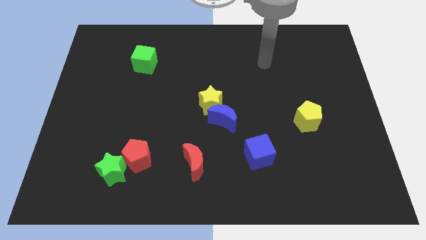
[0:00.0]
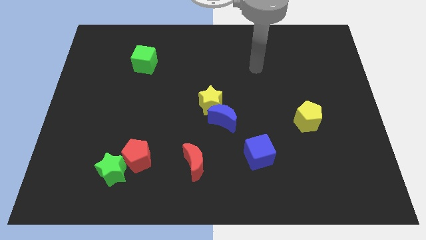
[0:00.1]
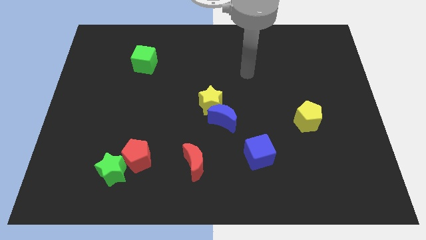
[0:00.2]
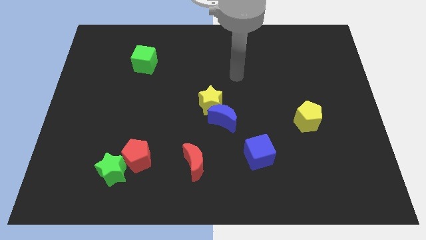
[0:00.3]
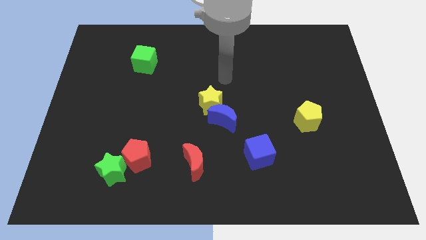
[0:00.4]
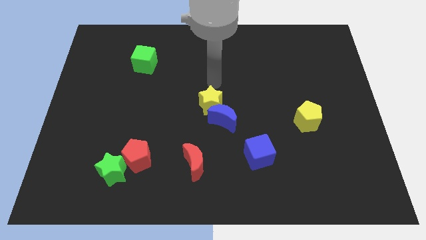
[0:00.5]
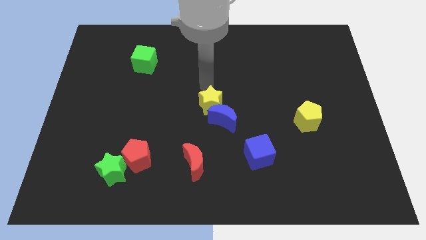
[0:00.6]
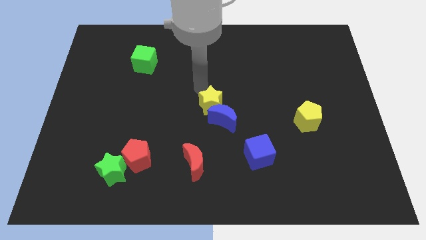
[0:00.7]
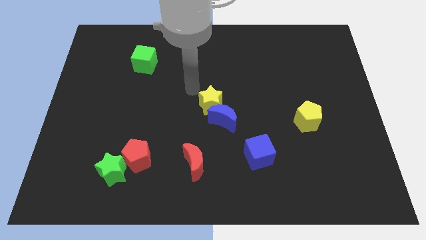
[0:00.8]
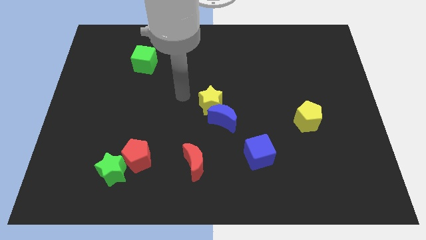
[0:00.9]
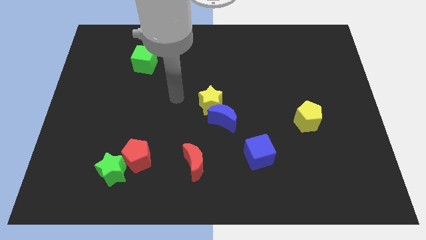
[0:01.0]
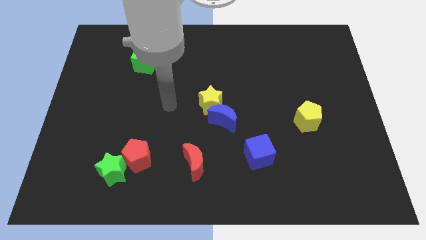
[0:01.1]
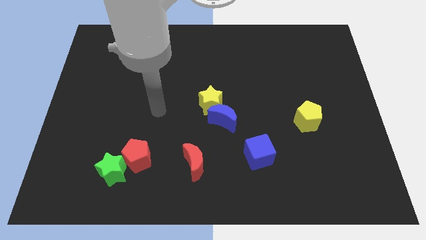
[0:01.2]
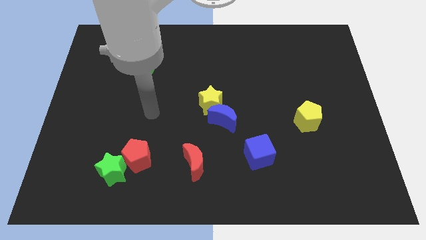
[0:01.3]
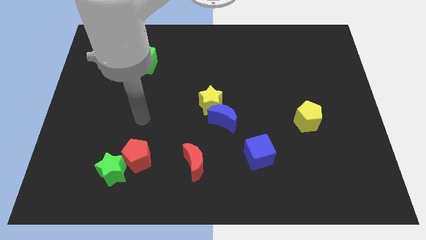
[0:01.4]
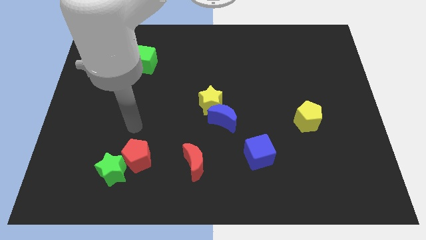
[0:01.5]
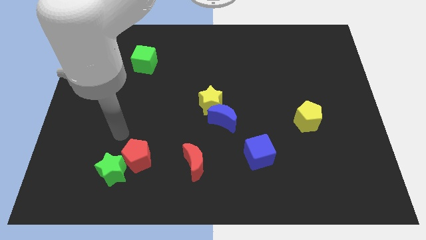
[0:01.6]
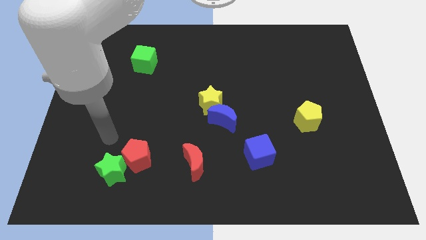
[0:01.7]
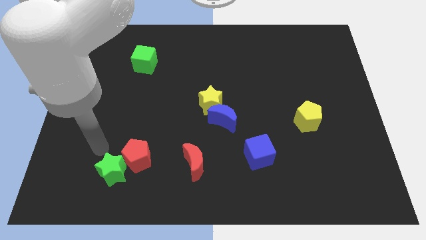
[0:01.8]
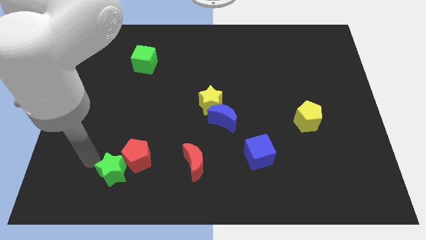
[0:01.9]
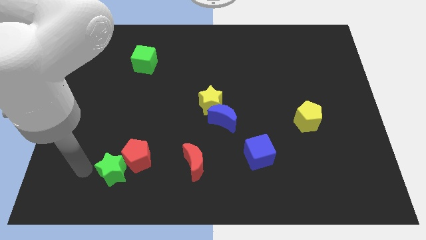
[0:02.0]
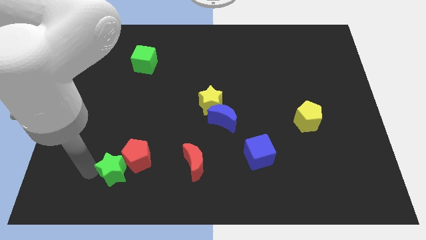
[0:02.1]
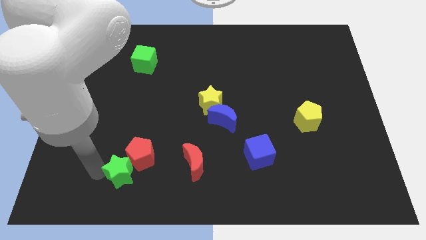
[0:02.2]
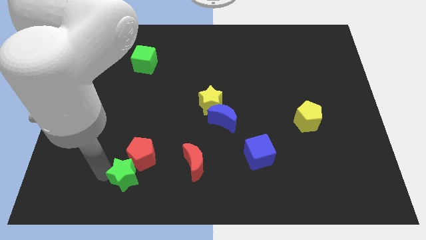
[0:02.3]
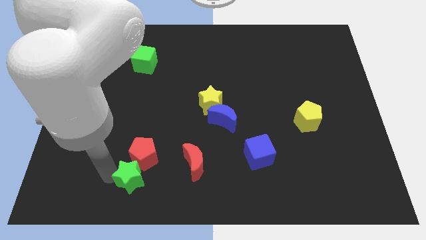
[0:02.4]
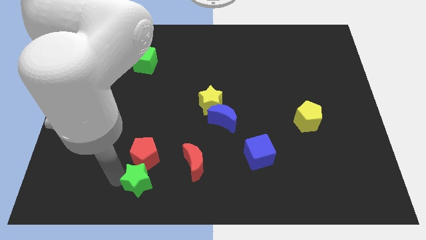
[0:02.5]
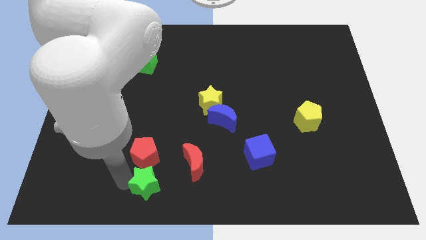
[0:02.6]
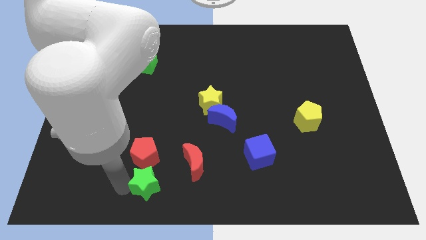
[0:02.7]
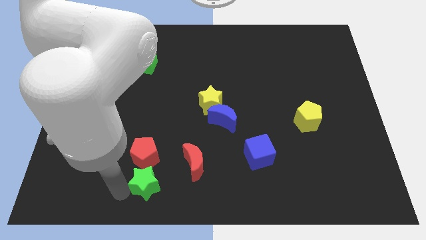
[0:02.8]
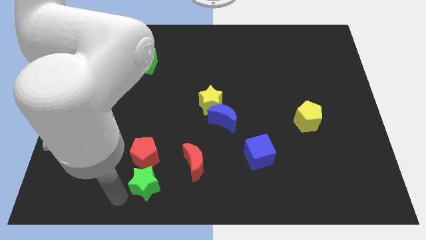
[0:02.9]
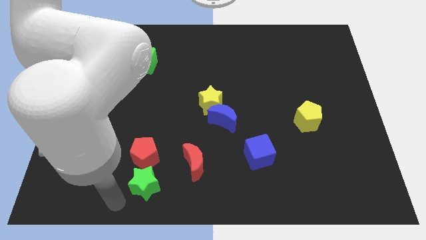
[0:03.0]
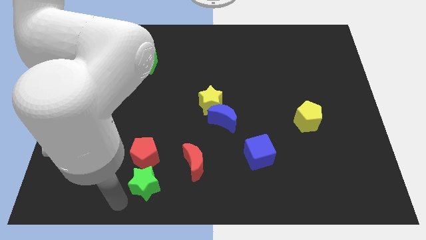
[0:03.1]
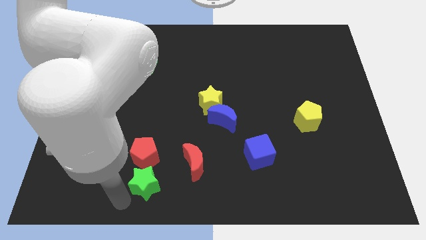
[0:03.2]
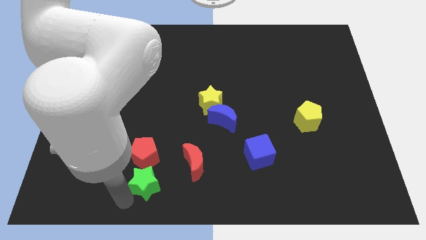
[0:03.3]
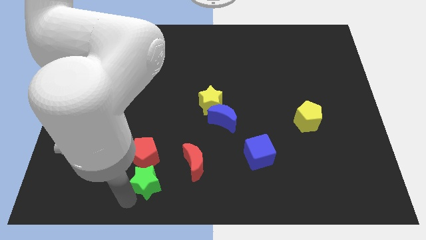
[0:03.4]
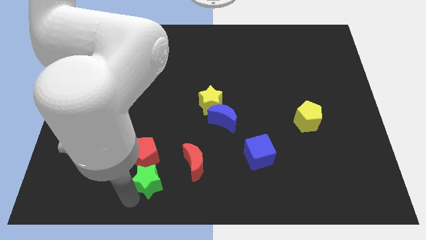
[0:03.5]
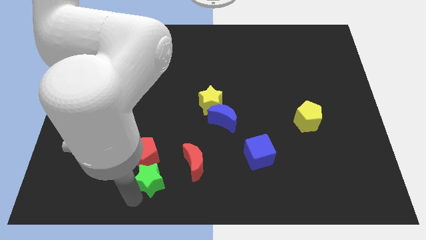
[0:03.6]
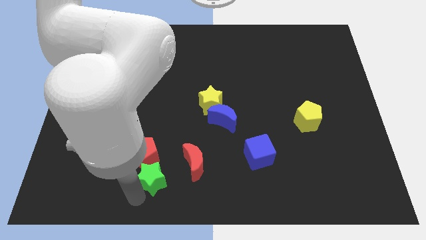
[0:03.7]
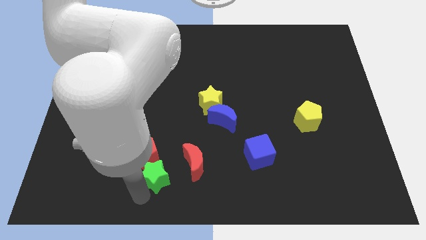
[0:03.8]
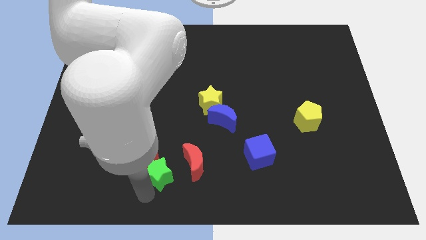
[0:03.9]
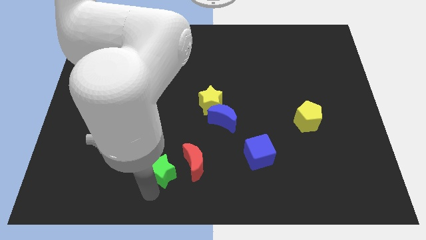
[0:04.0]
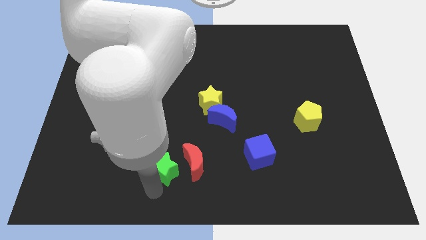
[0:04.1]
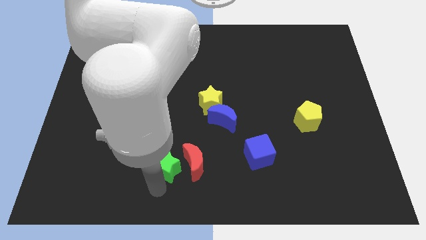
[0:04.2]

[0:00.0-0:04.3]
move the green star close to the red moon

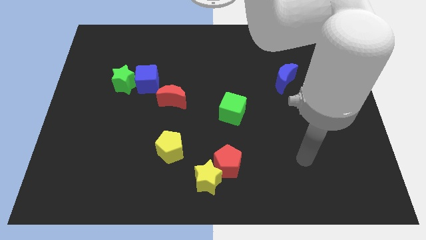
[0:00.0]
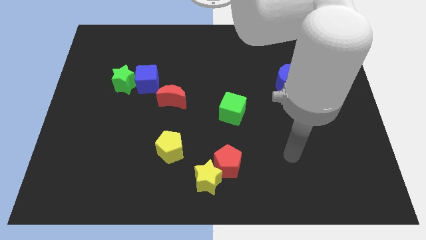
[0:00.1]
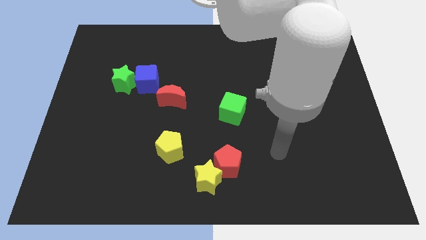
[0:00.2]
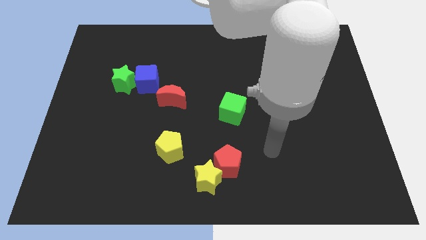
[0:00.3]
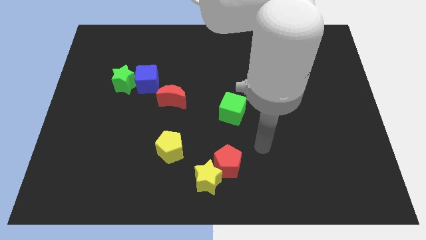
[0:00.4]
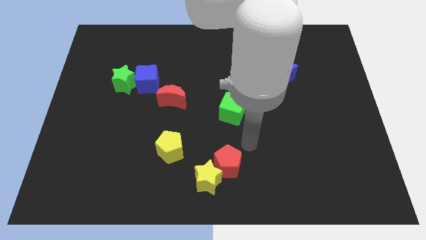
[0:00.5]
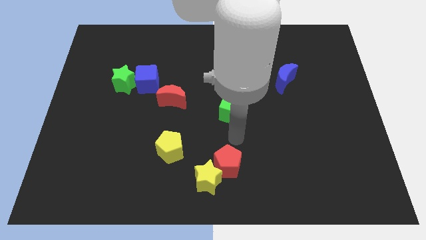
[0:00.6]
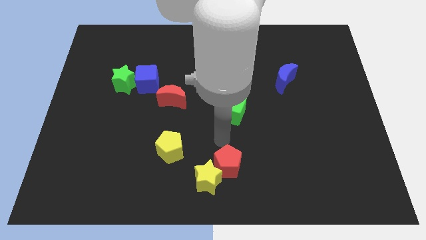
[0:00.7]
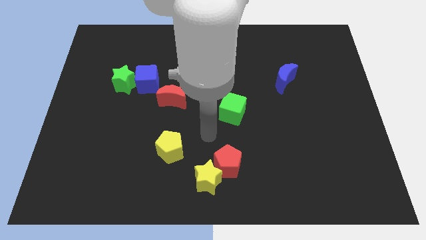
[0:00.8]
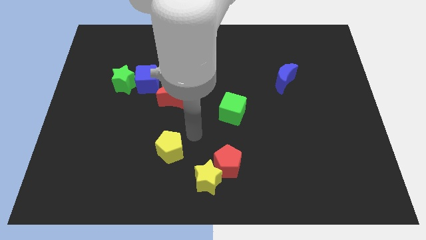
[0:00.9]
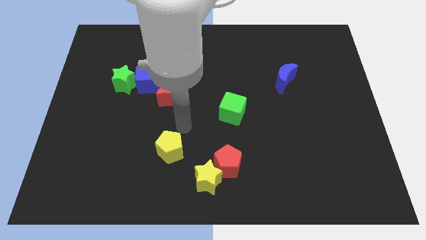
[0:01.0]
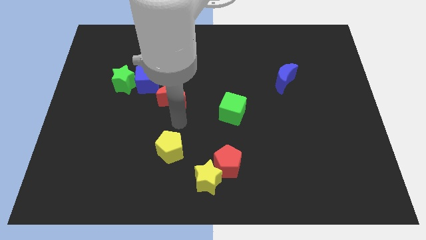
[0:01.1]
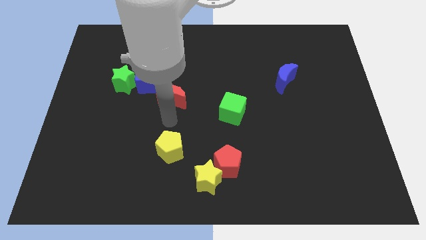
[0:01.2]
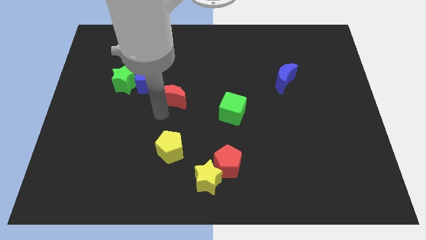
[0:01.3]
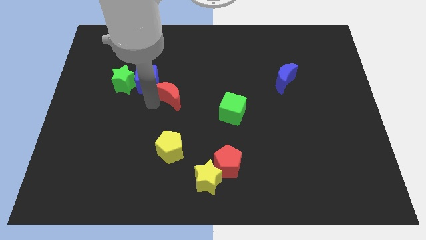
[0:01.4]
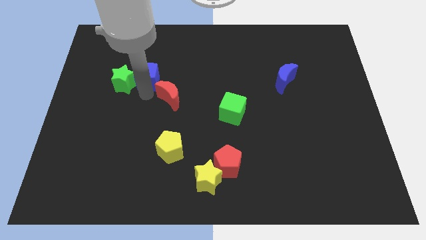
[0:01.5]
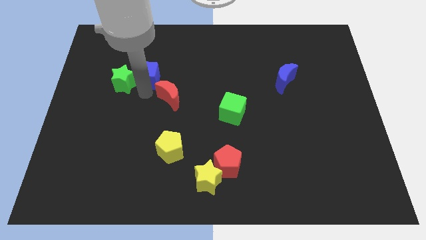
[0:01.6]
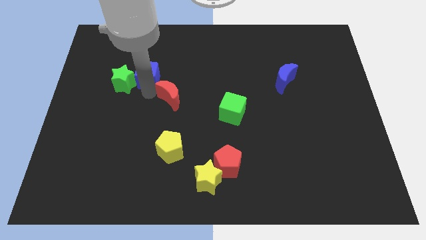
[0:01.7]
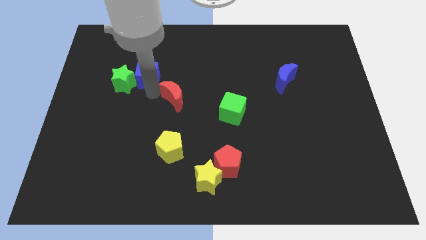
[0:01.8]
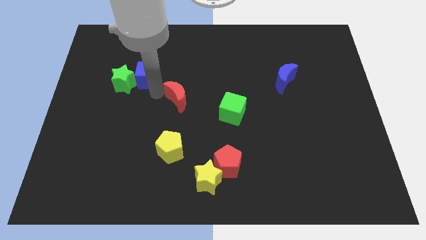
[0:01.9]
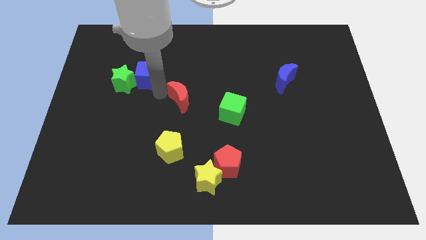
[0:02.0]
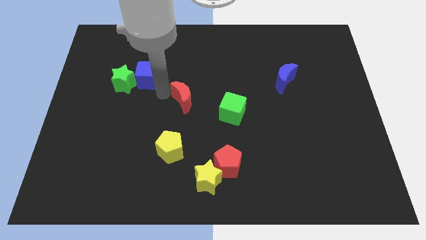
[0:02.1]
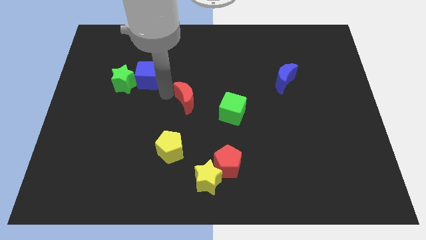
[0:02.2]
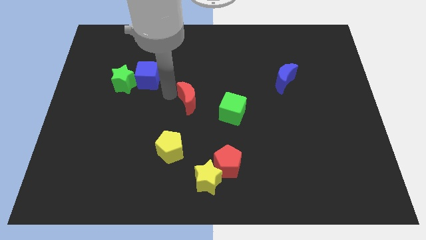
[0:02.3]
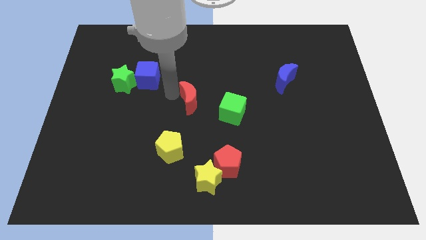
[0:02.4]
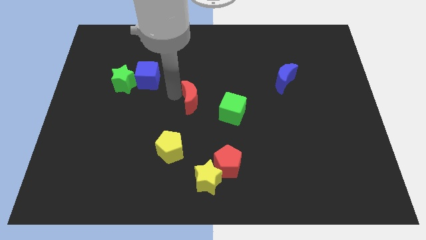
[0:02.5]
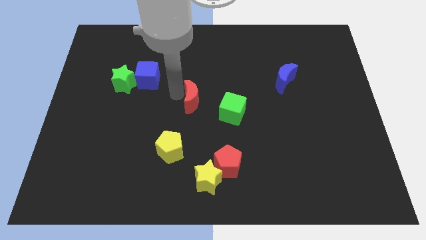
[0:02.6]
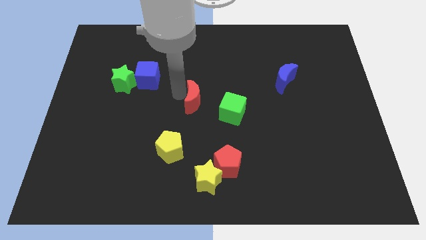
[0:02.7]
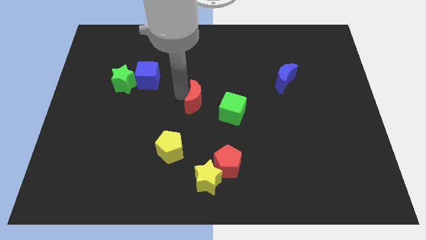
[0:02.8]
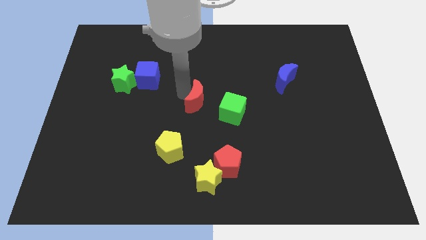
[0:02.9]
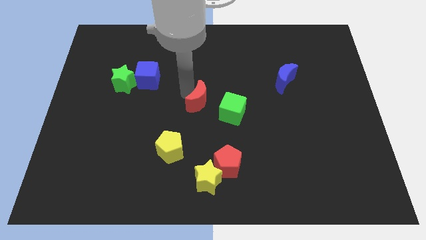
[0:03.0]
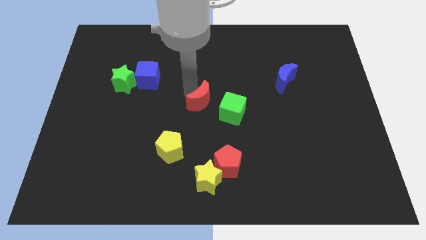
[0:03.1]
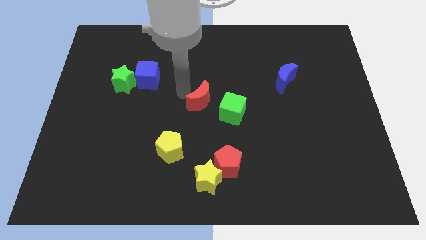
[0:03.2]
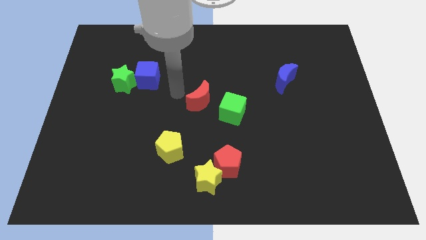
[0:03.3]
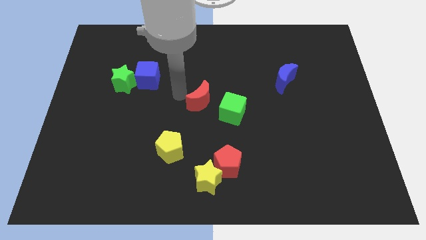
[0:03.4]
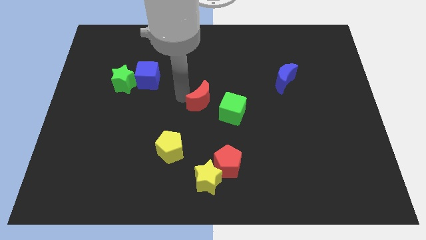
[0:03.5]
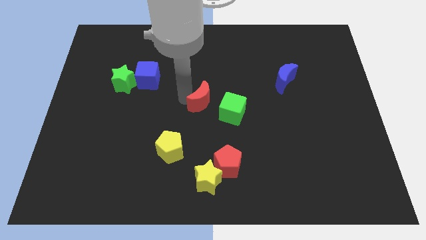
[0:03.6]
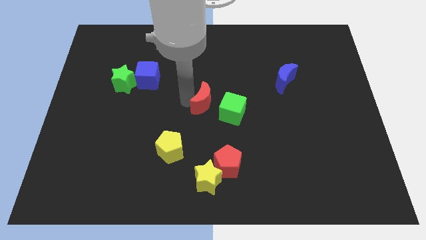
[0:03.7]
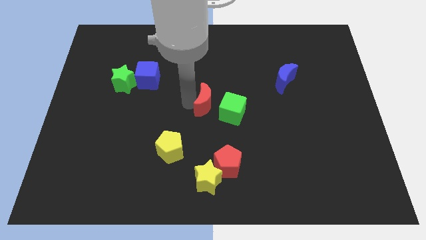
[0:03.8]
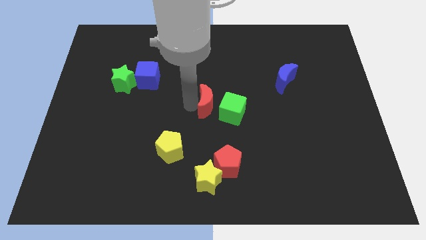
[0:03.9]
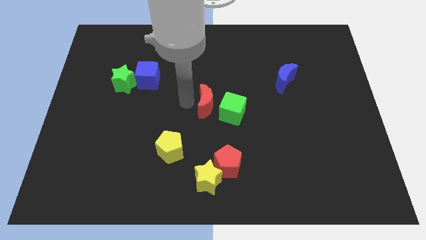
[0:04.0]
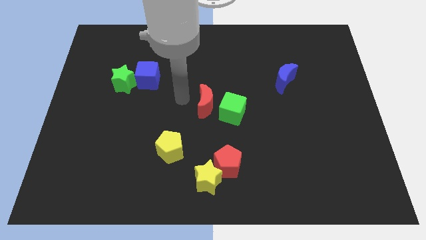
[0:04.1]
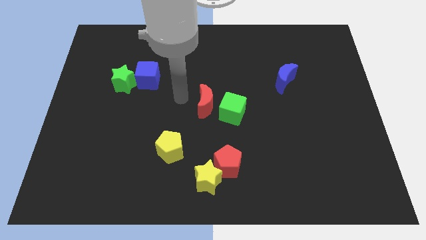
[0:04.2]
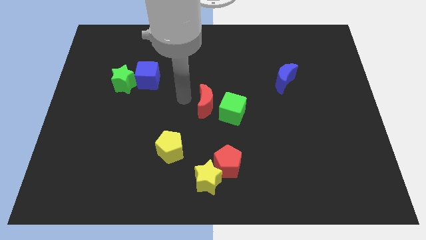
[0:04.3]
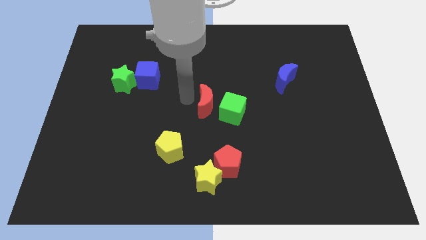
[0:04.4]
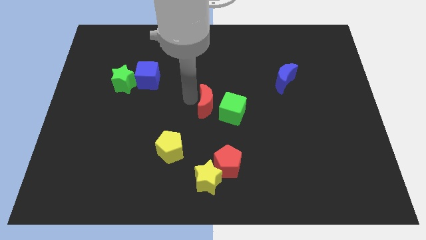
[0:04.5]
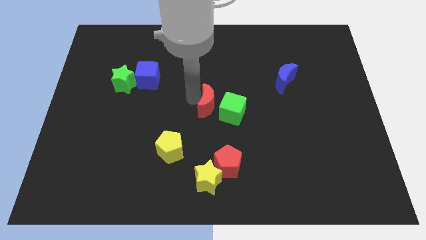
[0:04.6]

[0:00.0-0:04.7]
slide the red moon to the green cube
